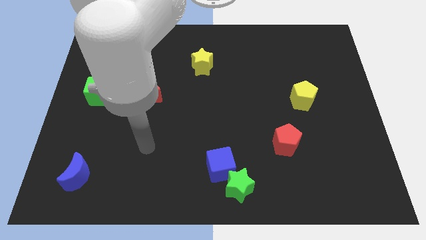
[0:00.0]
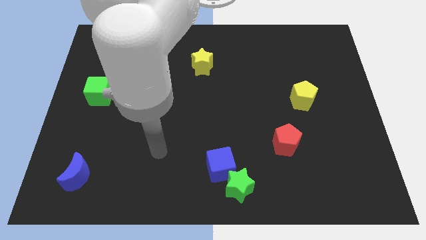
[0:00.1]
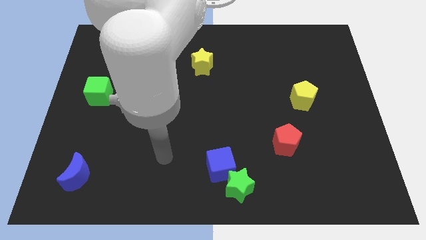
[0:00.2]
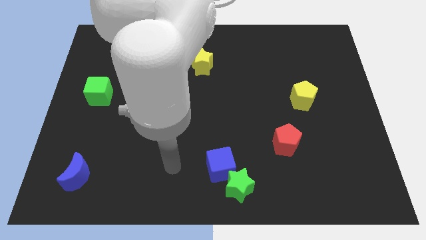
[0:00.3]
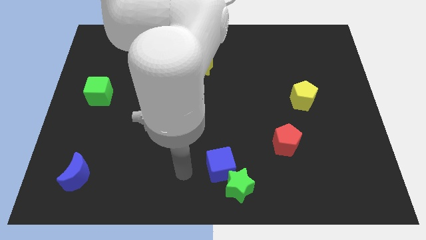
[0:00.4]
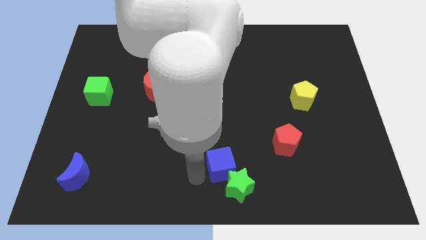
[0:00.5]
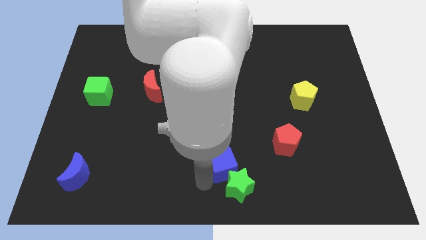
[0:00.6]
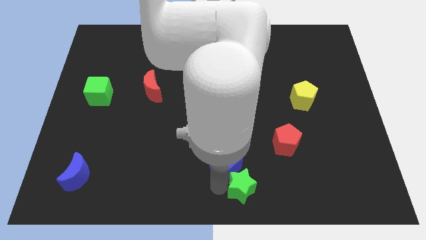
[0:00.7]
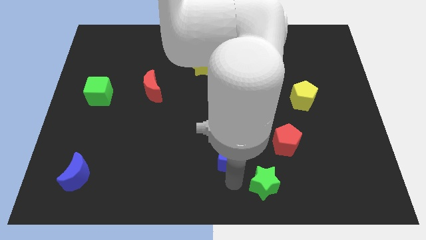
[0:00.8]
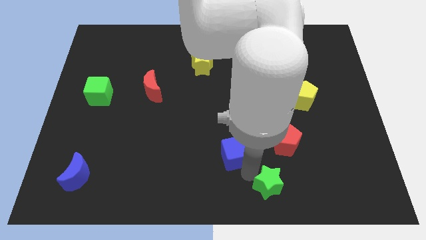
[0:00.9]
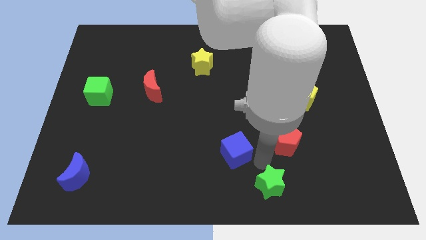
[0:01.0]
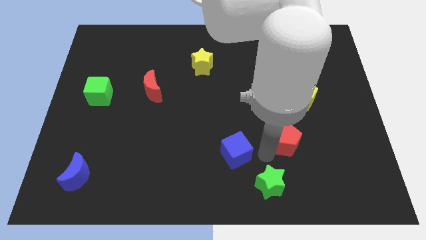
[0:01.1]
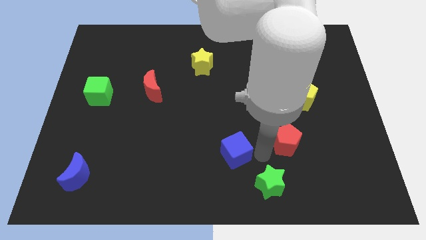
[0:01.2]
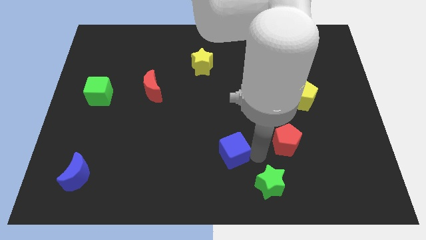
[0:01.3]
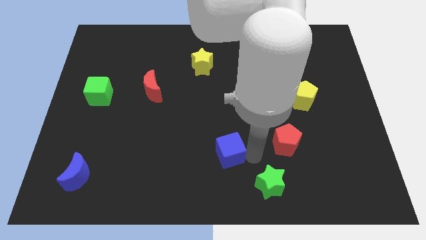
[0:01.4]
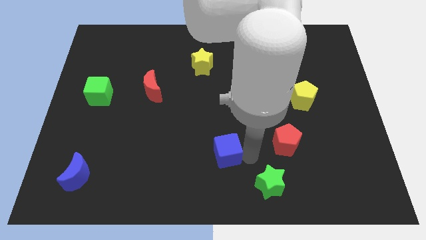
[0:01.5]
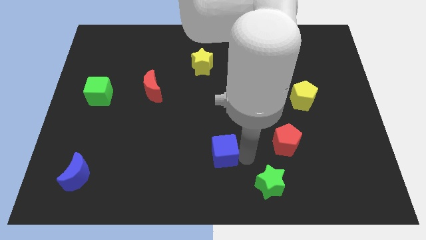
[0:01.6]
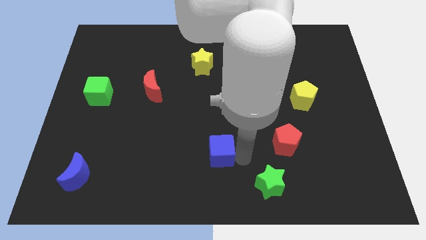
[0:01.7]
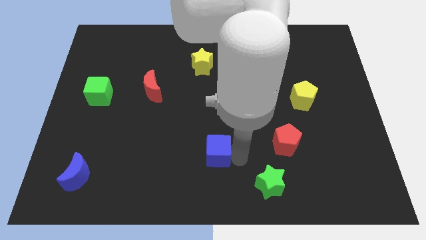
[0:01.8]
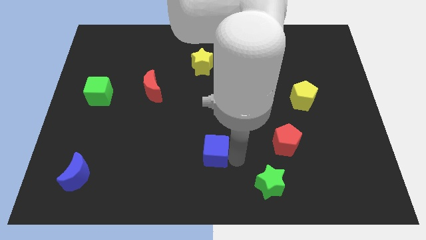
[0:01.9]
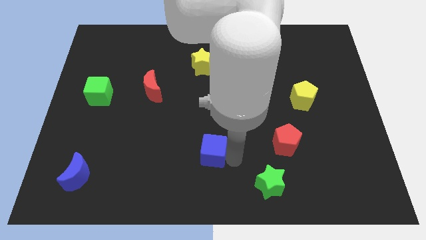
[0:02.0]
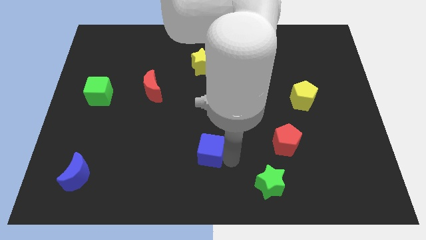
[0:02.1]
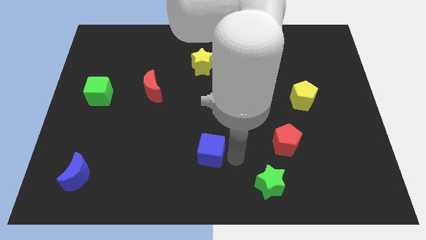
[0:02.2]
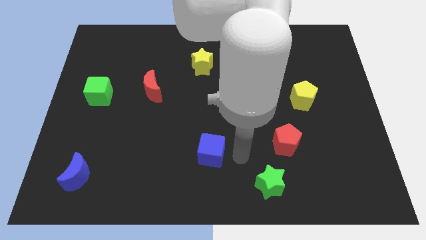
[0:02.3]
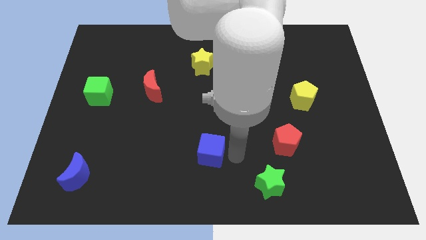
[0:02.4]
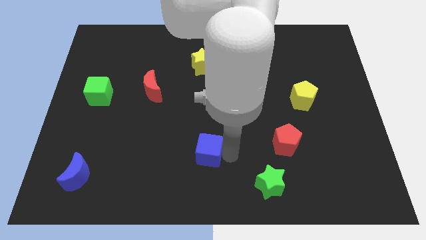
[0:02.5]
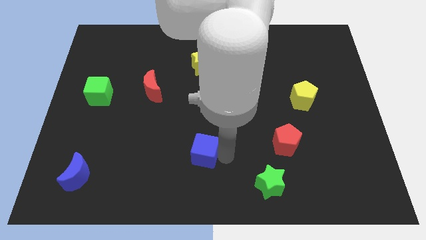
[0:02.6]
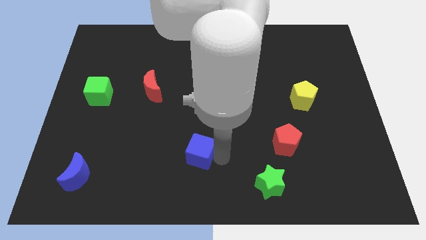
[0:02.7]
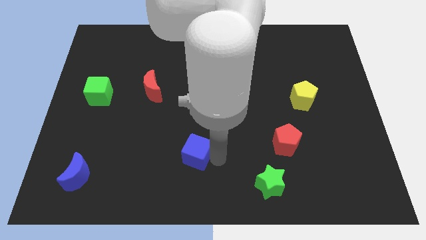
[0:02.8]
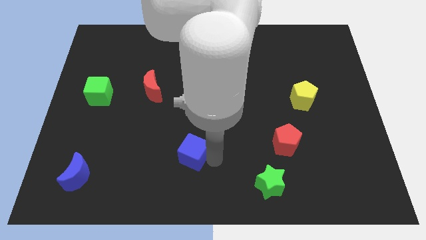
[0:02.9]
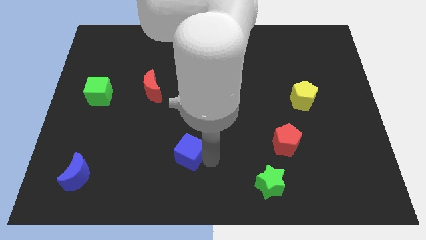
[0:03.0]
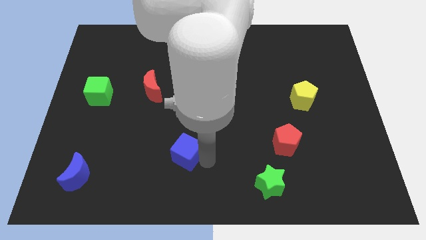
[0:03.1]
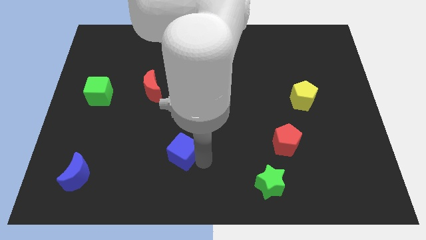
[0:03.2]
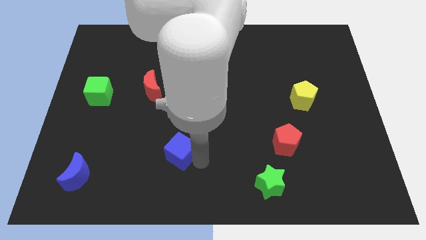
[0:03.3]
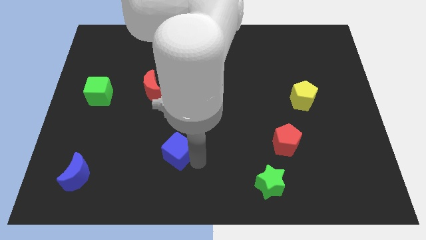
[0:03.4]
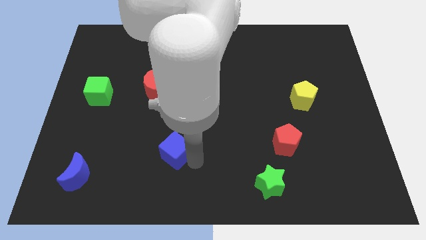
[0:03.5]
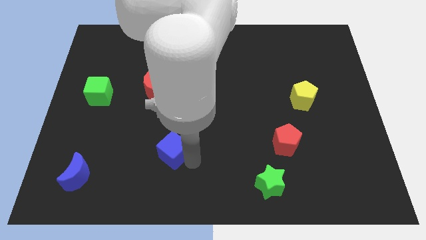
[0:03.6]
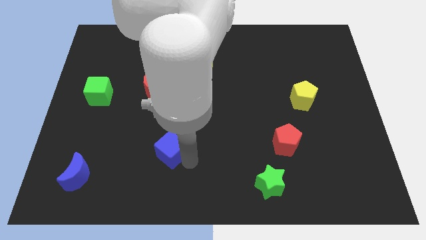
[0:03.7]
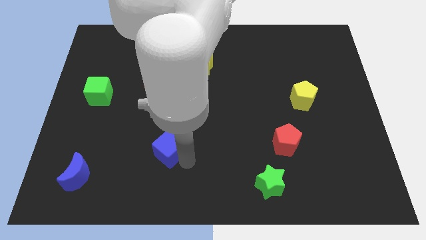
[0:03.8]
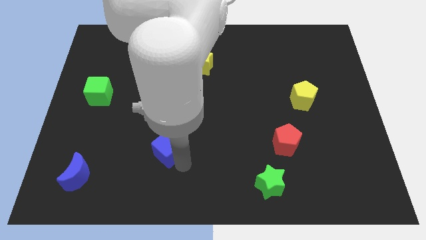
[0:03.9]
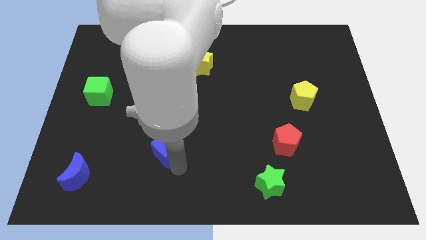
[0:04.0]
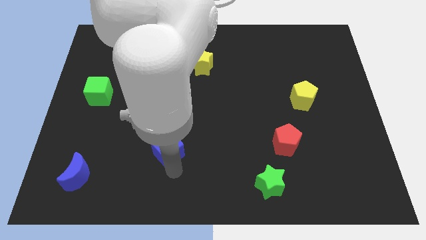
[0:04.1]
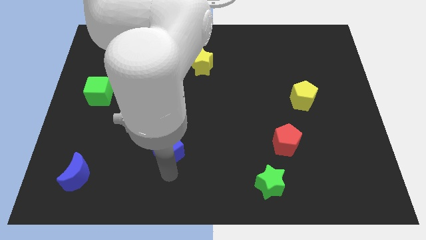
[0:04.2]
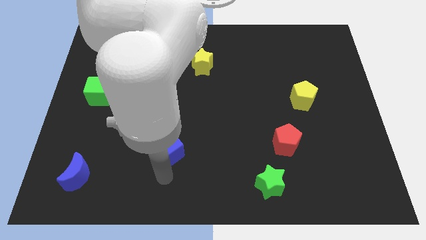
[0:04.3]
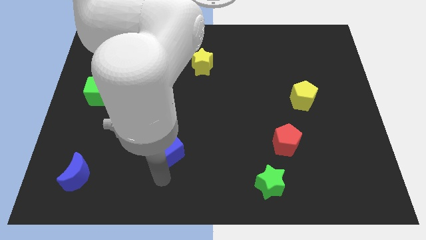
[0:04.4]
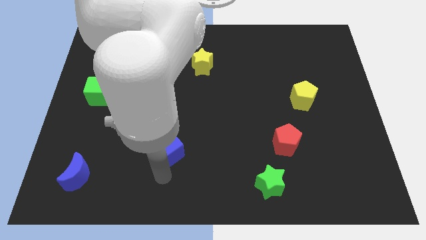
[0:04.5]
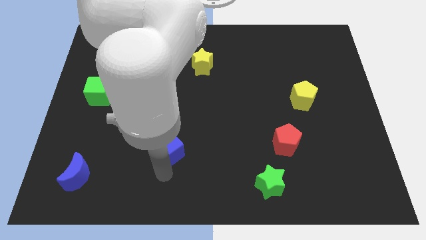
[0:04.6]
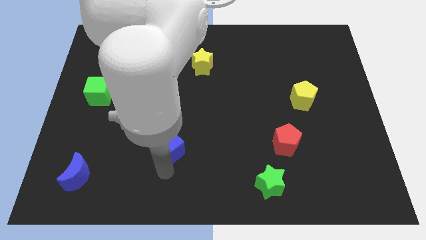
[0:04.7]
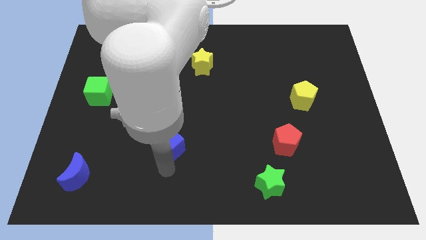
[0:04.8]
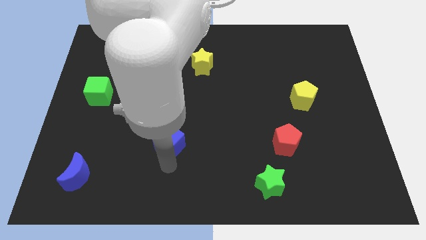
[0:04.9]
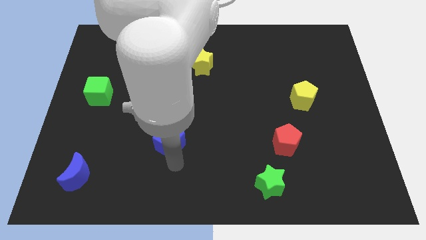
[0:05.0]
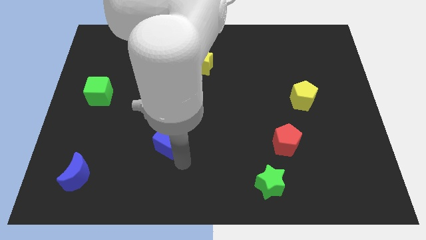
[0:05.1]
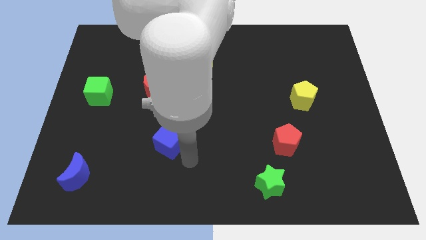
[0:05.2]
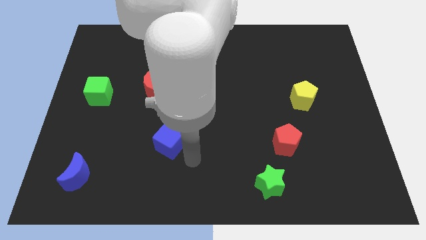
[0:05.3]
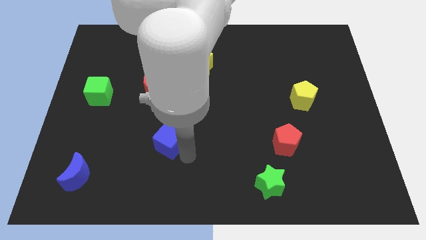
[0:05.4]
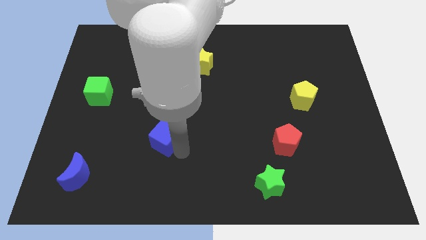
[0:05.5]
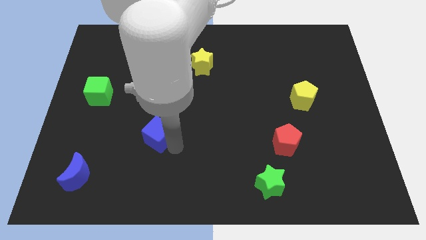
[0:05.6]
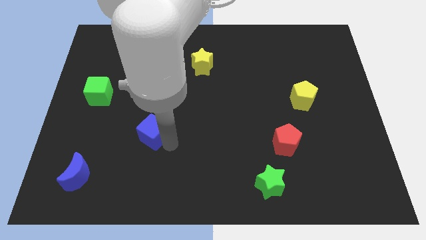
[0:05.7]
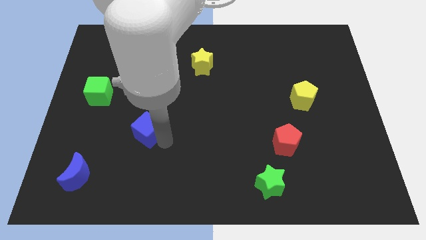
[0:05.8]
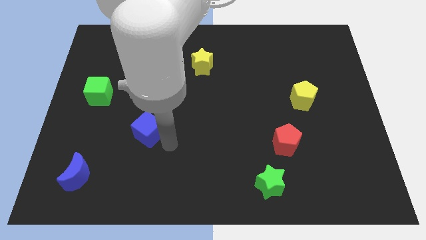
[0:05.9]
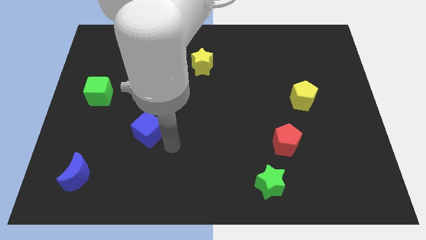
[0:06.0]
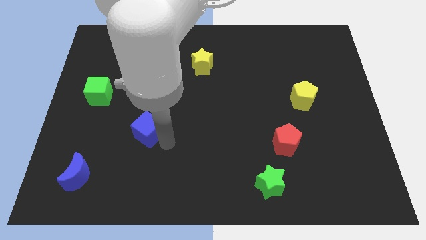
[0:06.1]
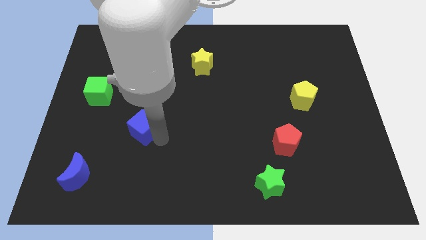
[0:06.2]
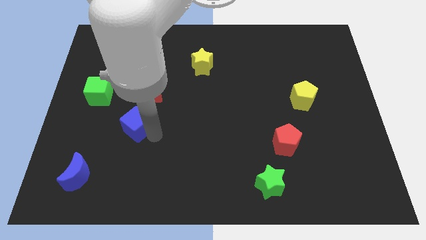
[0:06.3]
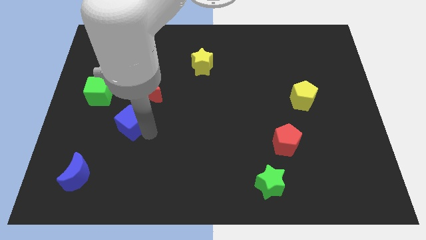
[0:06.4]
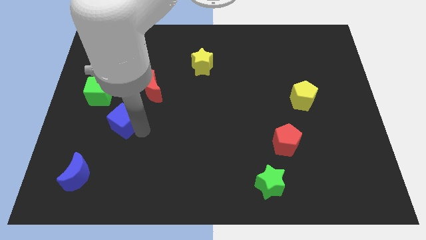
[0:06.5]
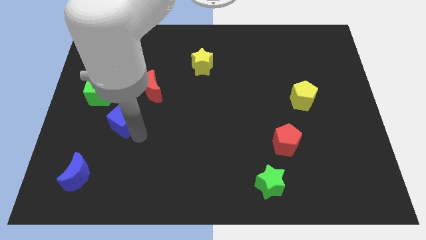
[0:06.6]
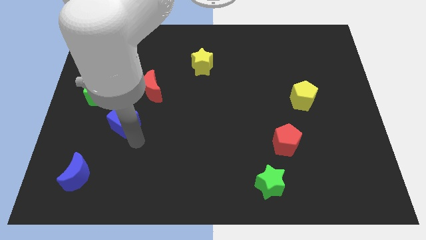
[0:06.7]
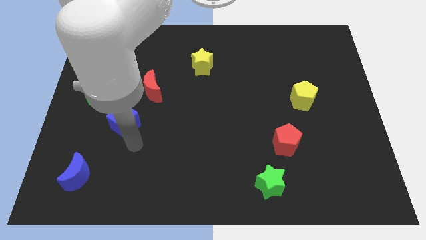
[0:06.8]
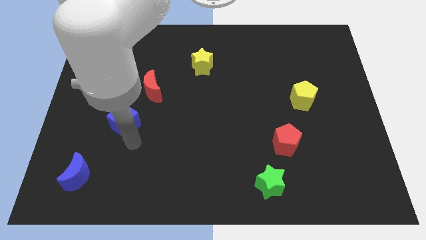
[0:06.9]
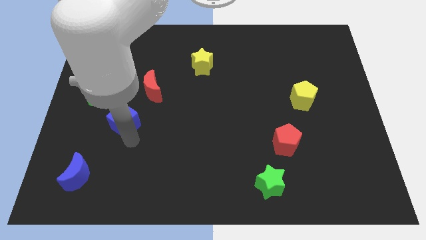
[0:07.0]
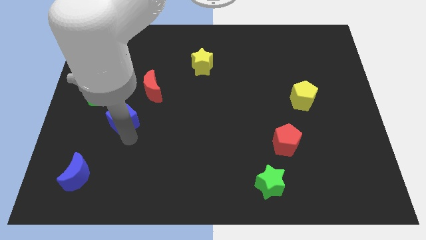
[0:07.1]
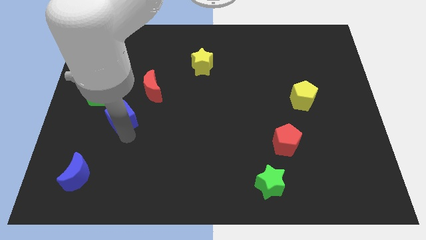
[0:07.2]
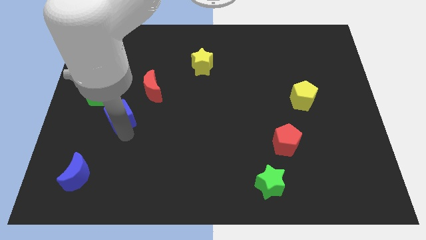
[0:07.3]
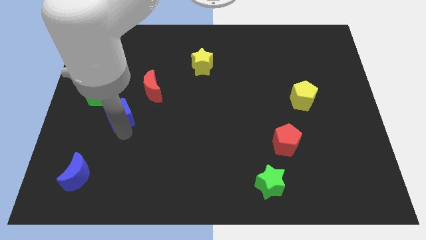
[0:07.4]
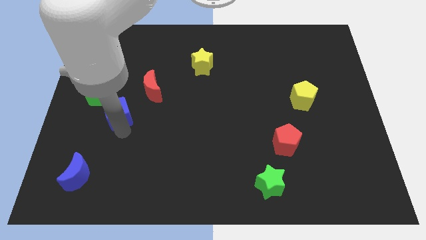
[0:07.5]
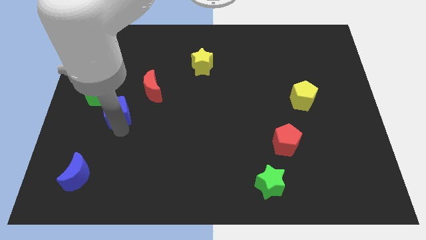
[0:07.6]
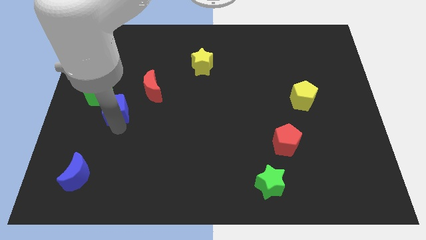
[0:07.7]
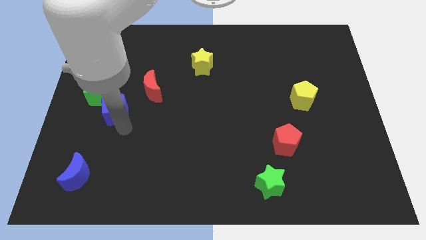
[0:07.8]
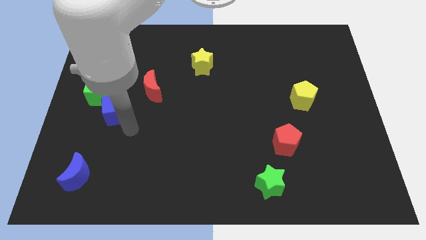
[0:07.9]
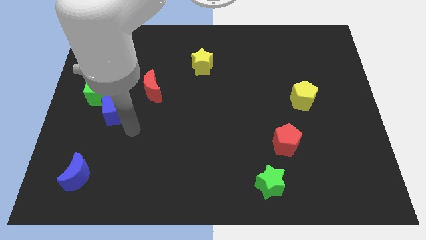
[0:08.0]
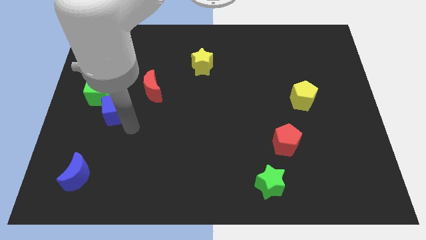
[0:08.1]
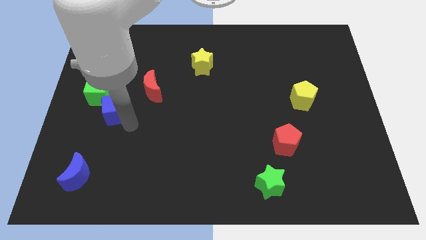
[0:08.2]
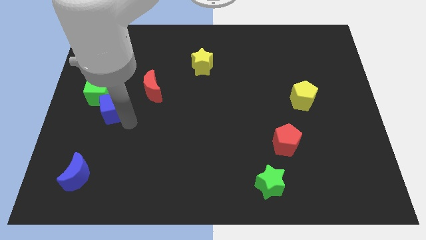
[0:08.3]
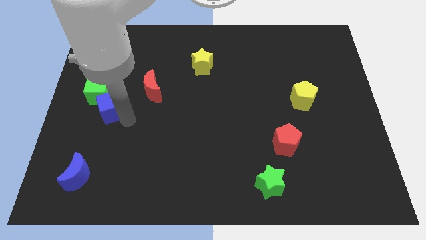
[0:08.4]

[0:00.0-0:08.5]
put the blue cube to the green cube
